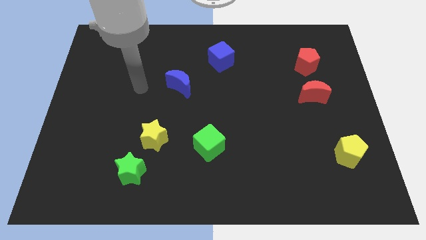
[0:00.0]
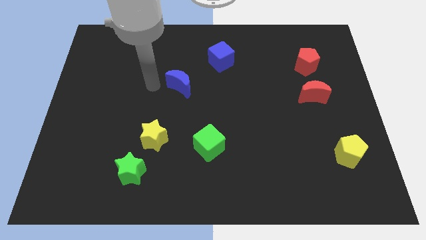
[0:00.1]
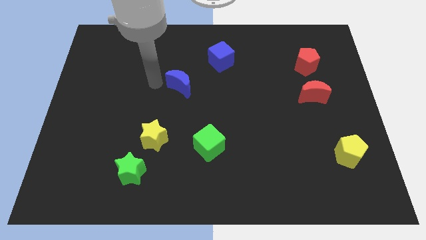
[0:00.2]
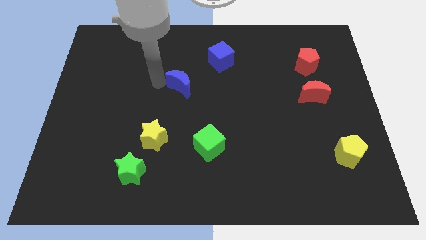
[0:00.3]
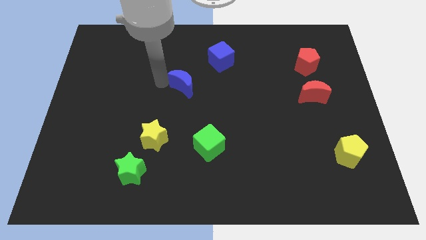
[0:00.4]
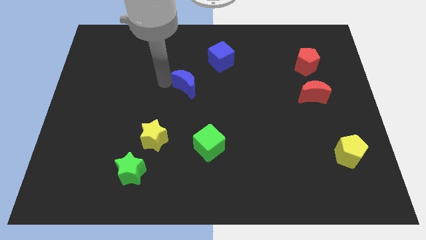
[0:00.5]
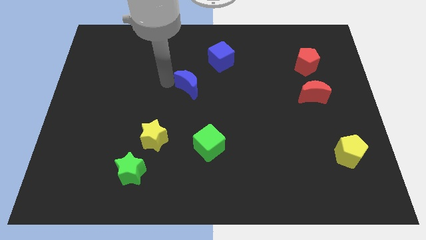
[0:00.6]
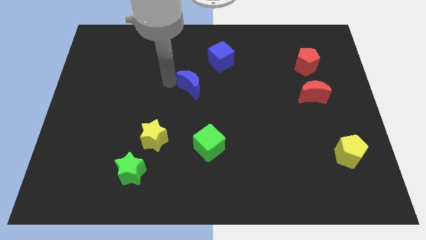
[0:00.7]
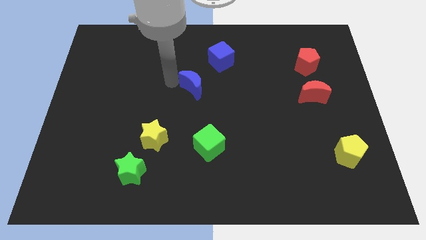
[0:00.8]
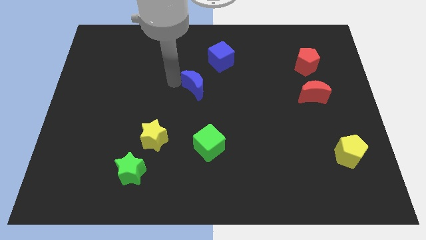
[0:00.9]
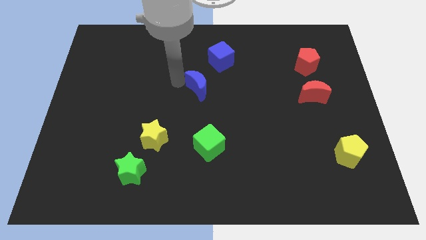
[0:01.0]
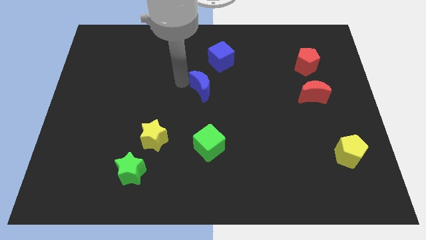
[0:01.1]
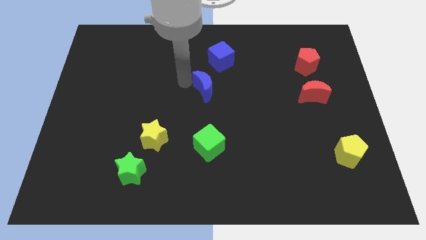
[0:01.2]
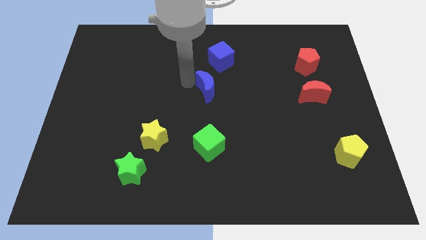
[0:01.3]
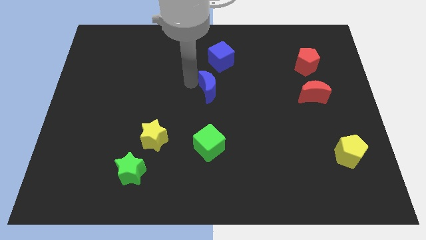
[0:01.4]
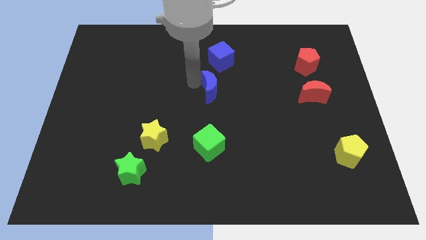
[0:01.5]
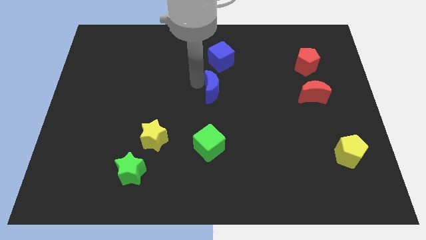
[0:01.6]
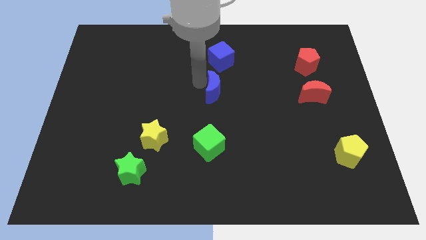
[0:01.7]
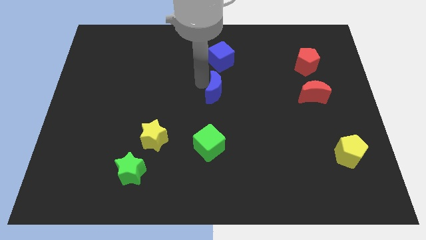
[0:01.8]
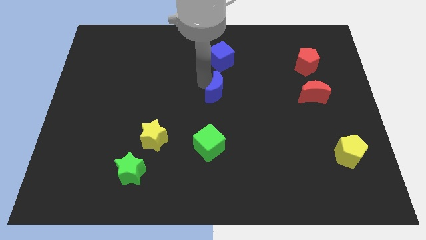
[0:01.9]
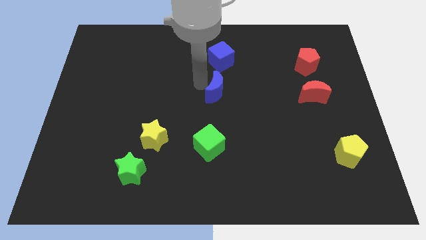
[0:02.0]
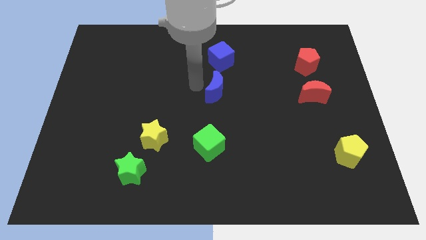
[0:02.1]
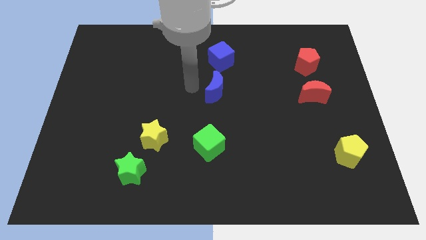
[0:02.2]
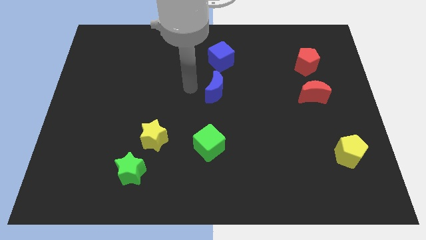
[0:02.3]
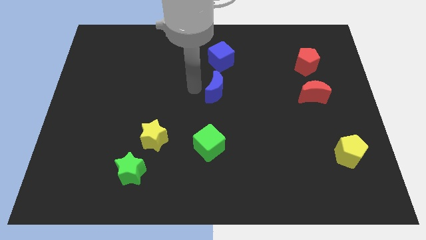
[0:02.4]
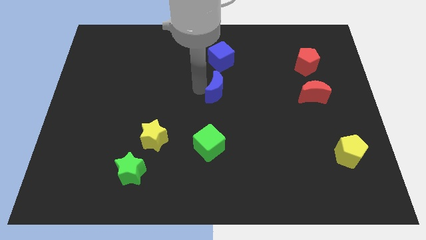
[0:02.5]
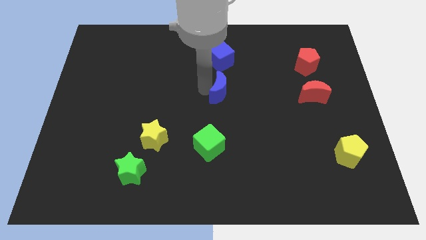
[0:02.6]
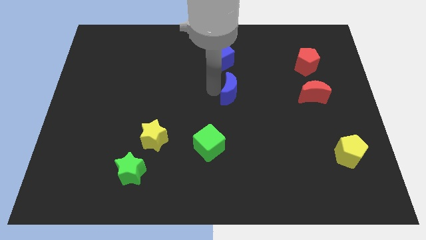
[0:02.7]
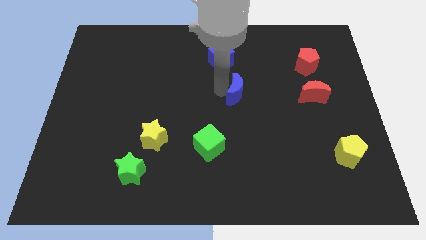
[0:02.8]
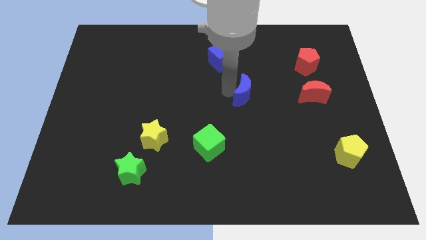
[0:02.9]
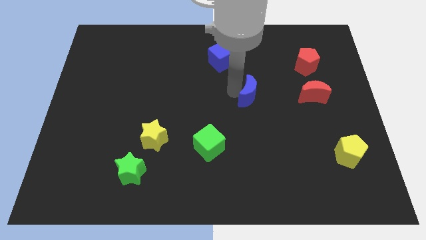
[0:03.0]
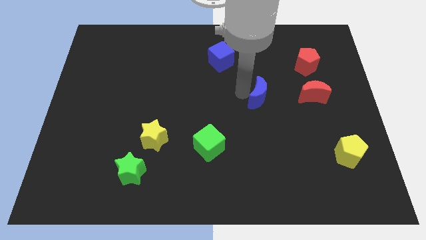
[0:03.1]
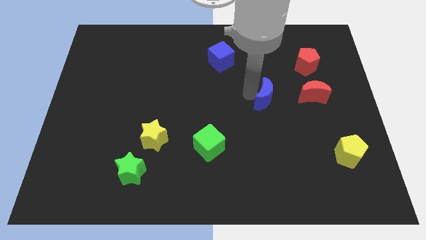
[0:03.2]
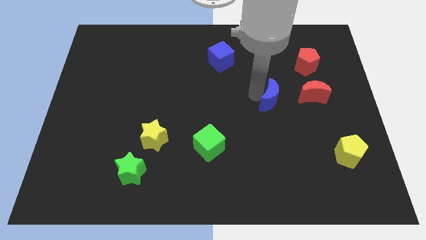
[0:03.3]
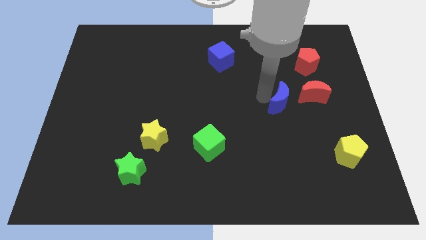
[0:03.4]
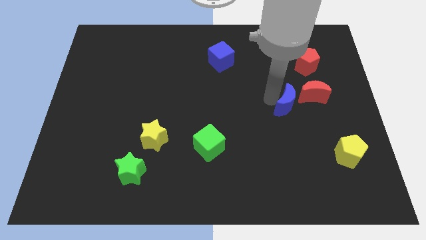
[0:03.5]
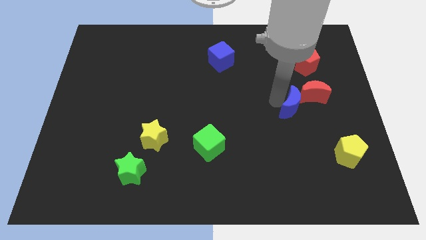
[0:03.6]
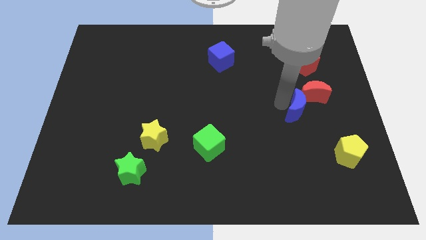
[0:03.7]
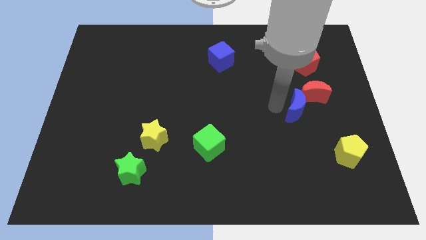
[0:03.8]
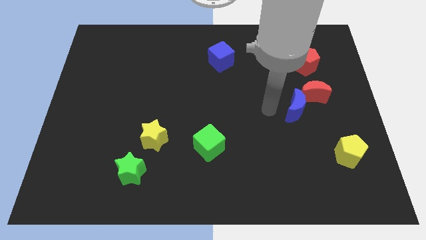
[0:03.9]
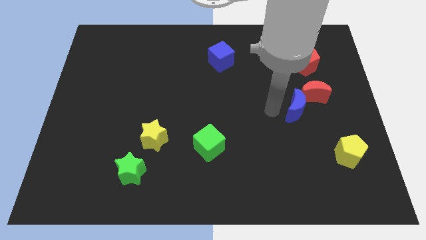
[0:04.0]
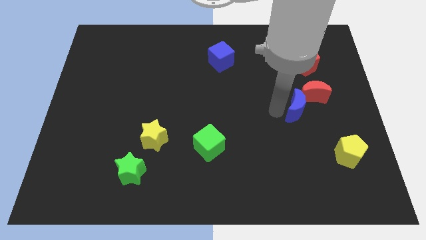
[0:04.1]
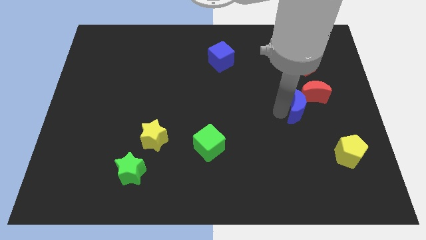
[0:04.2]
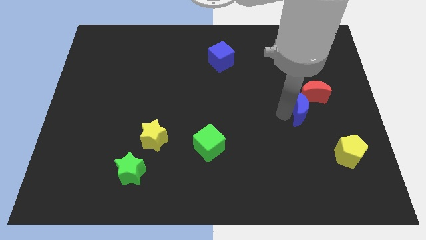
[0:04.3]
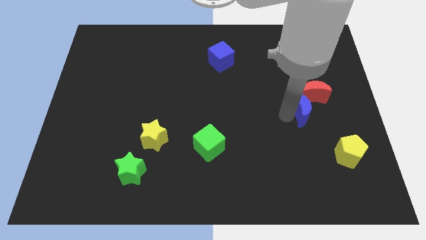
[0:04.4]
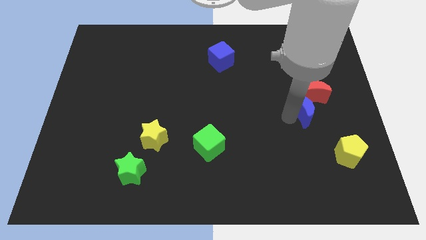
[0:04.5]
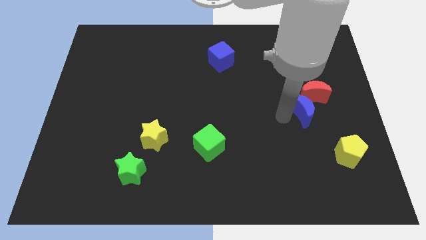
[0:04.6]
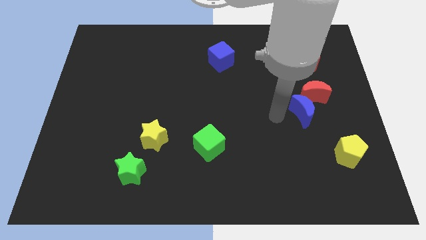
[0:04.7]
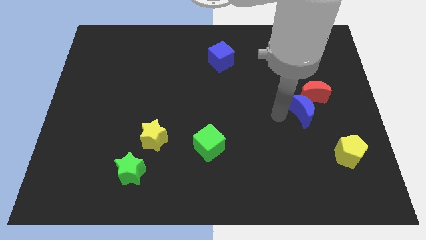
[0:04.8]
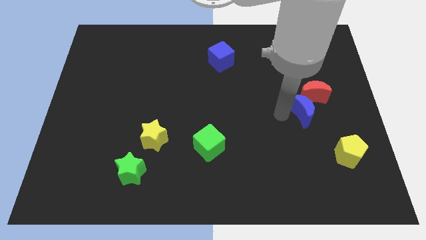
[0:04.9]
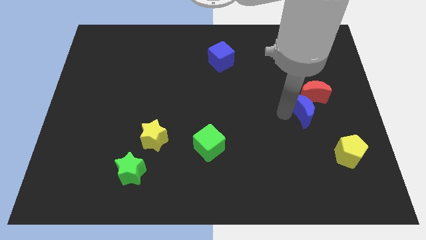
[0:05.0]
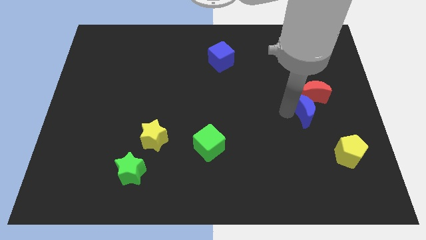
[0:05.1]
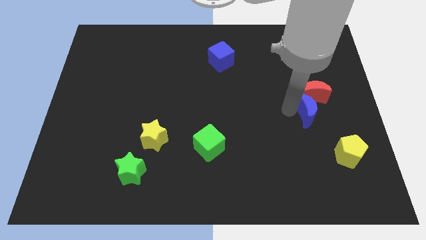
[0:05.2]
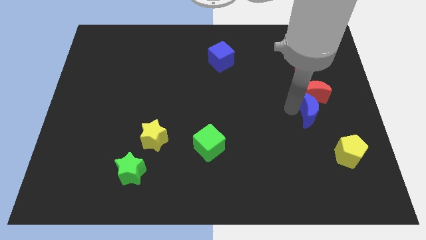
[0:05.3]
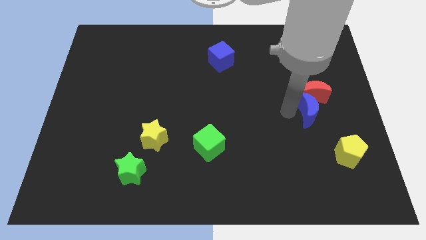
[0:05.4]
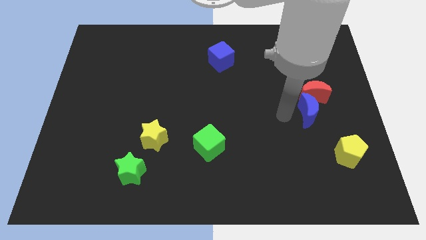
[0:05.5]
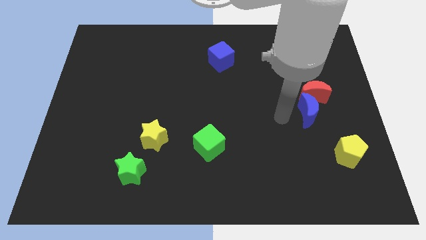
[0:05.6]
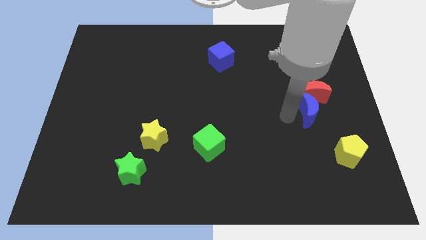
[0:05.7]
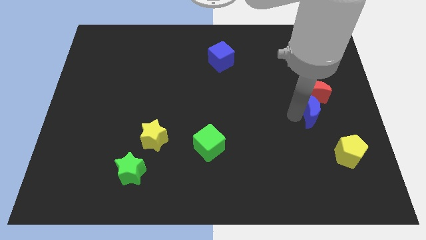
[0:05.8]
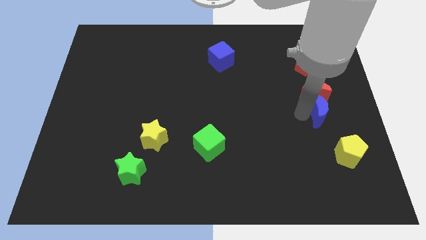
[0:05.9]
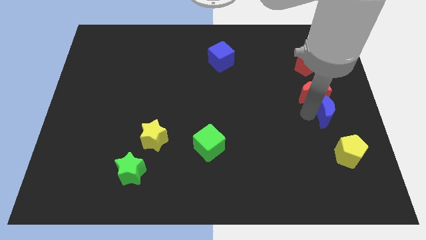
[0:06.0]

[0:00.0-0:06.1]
put the blue moon to the center right

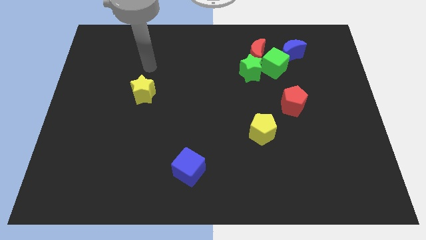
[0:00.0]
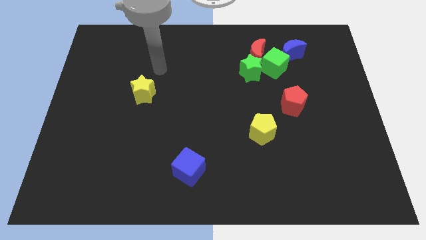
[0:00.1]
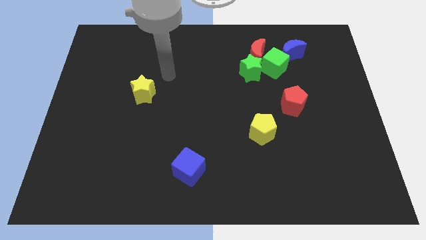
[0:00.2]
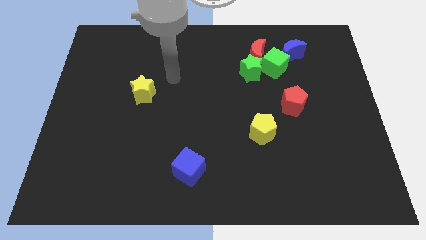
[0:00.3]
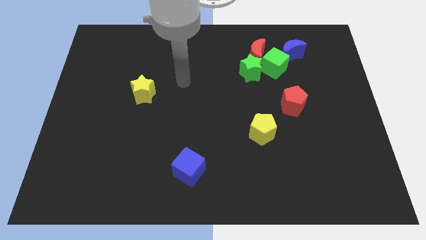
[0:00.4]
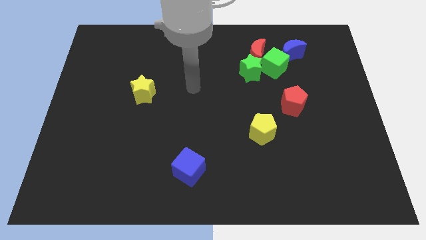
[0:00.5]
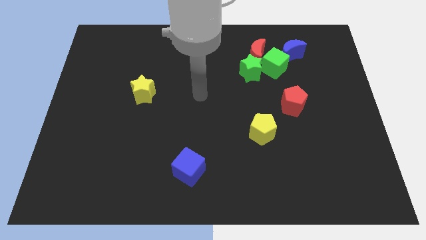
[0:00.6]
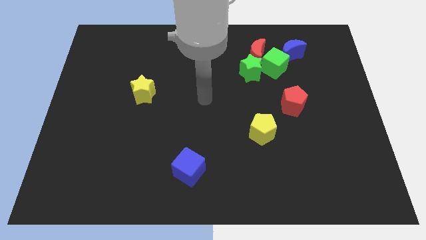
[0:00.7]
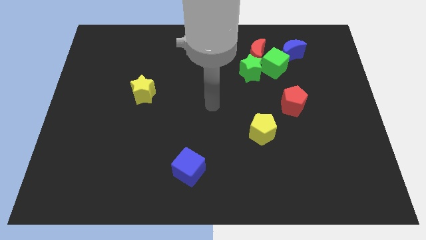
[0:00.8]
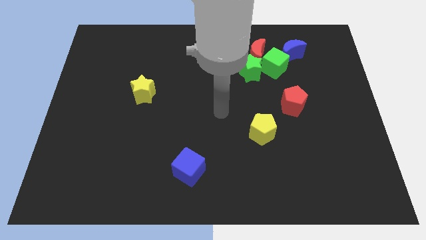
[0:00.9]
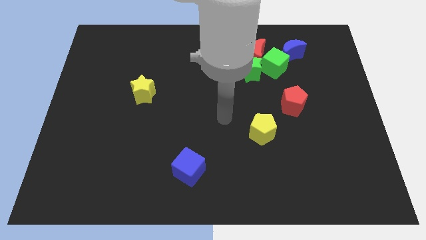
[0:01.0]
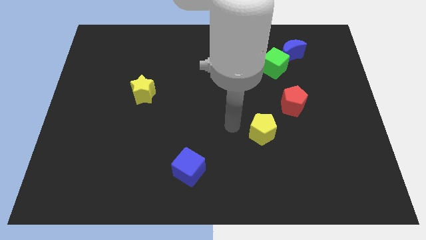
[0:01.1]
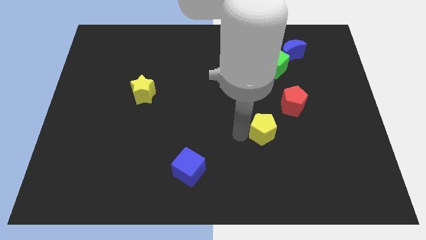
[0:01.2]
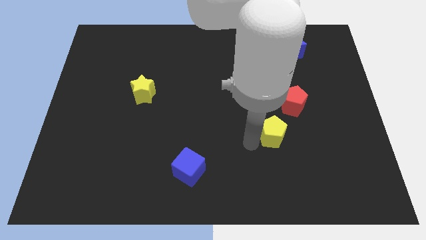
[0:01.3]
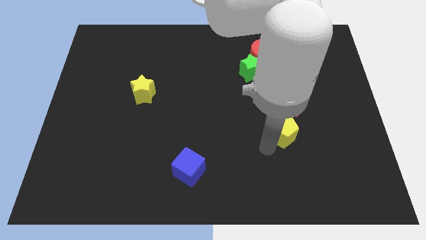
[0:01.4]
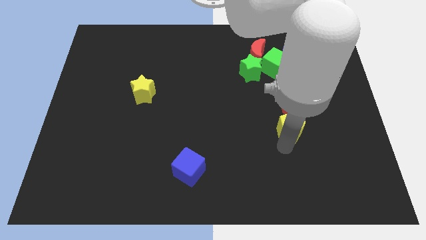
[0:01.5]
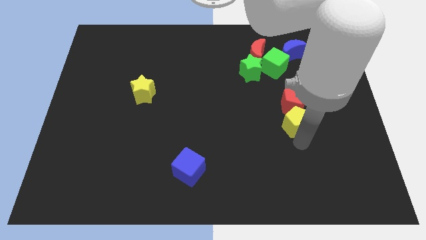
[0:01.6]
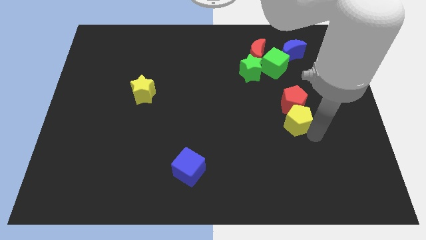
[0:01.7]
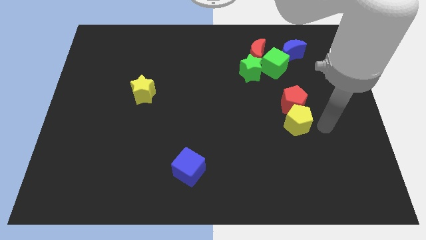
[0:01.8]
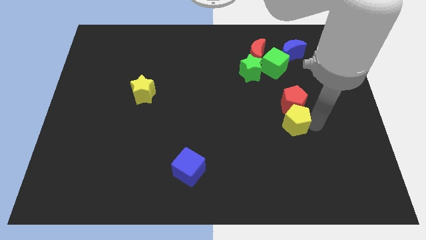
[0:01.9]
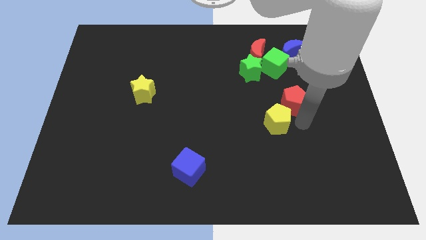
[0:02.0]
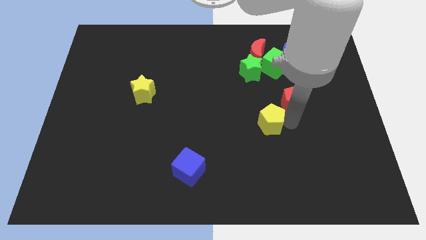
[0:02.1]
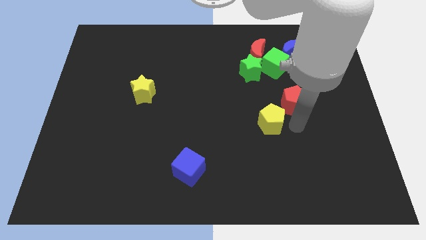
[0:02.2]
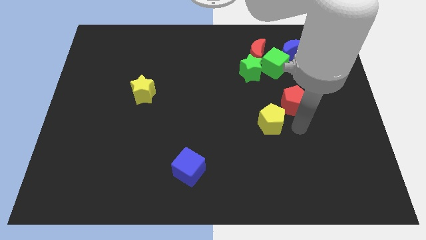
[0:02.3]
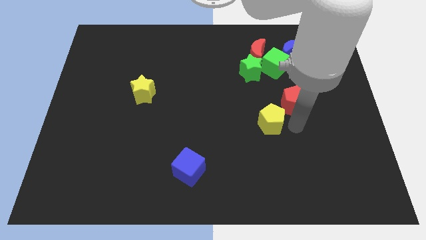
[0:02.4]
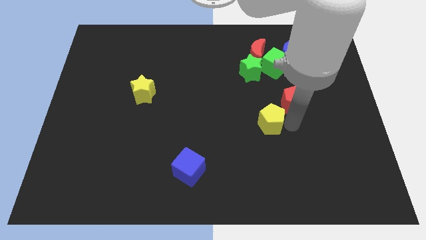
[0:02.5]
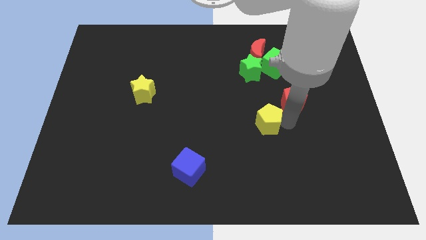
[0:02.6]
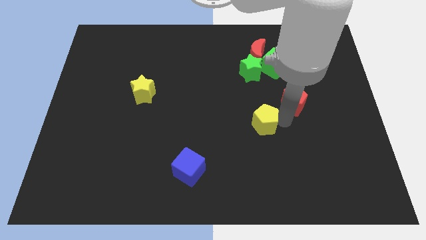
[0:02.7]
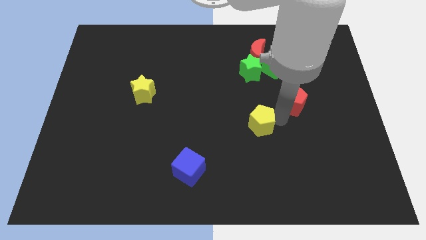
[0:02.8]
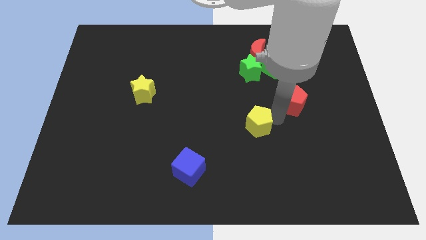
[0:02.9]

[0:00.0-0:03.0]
put the yellow pentagon to the middle
